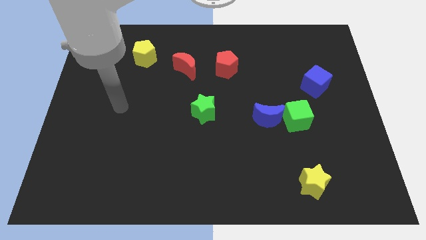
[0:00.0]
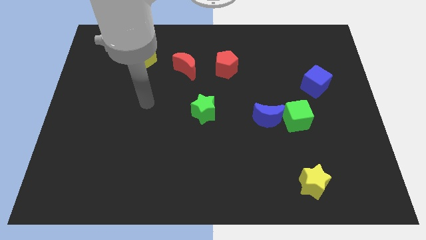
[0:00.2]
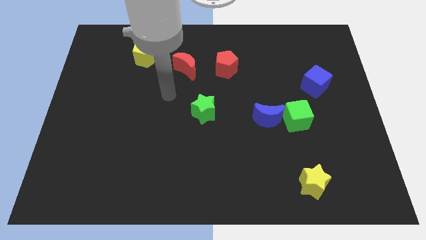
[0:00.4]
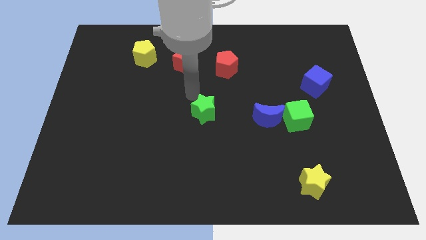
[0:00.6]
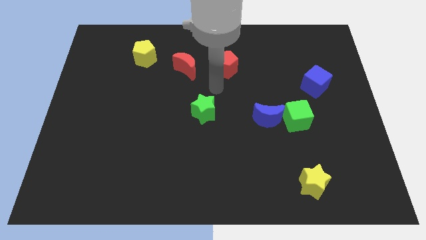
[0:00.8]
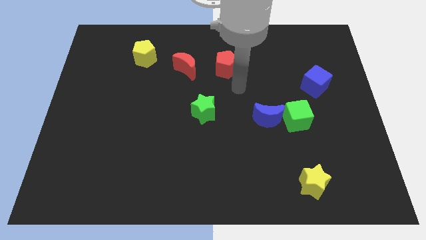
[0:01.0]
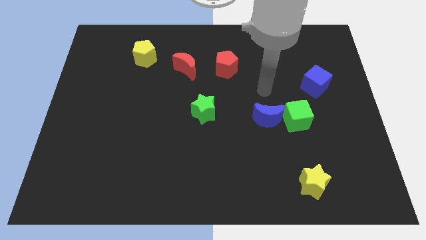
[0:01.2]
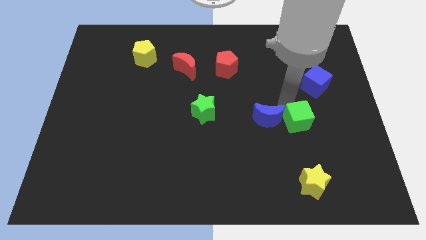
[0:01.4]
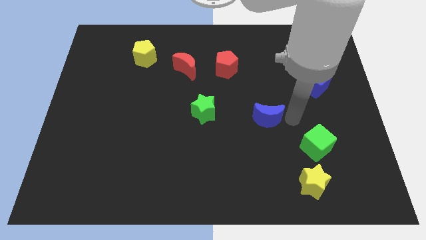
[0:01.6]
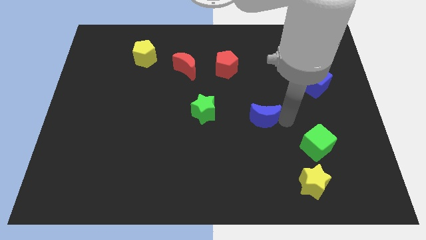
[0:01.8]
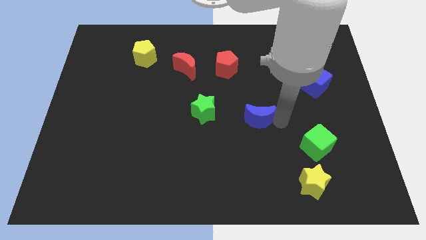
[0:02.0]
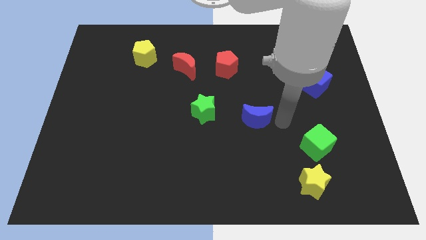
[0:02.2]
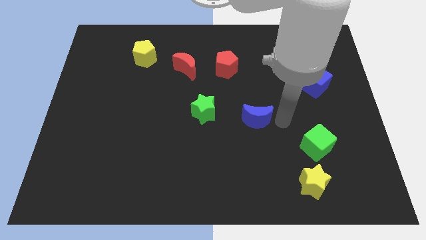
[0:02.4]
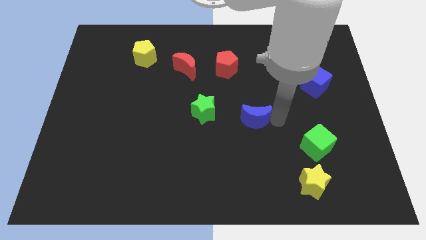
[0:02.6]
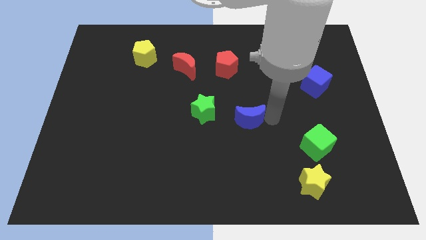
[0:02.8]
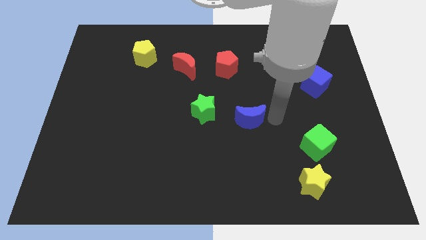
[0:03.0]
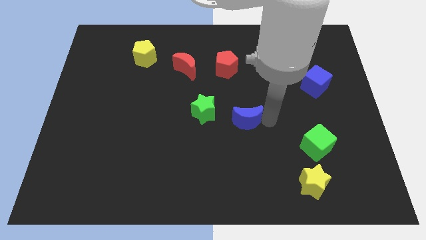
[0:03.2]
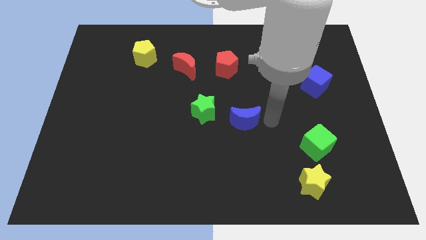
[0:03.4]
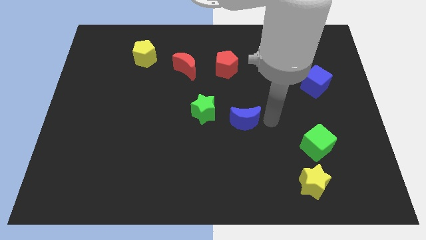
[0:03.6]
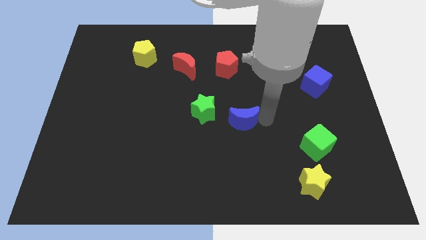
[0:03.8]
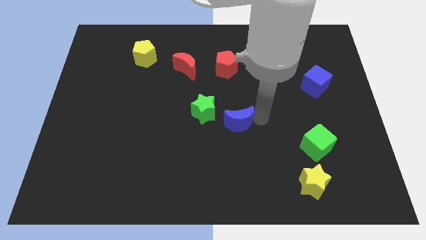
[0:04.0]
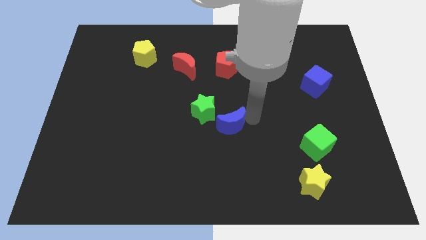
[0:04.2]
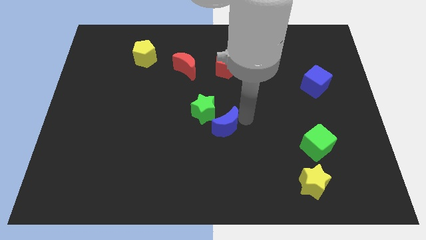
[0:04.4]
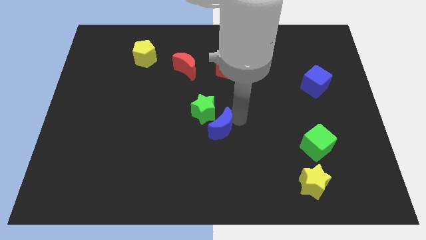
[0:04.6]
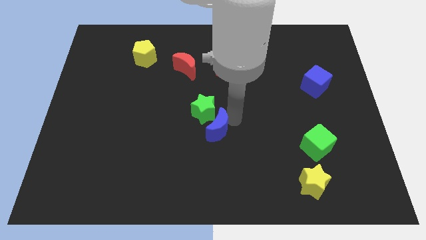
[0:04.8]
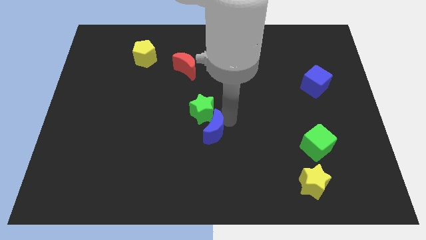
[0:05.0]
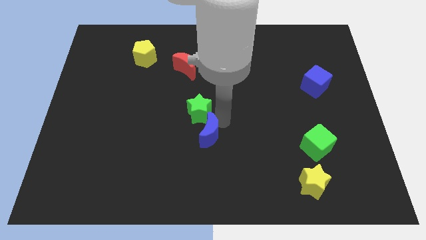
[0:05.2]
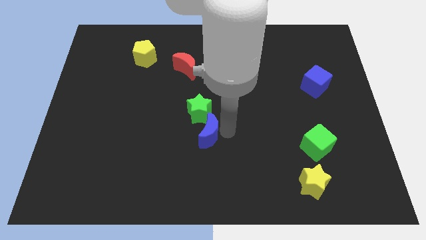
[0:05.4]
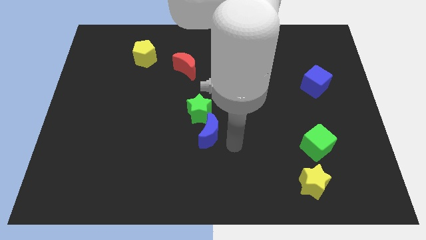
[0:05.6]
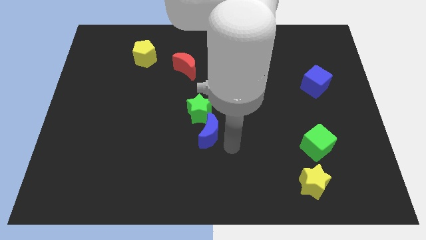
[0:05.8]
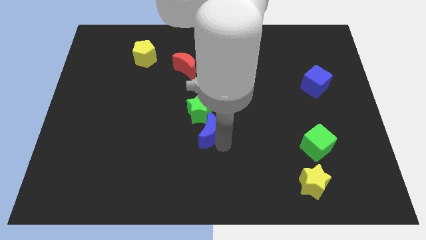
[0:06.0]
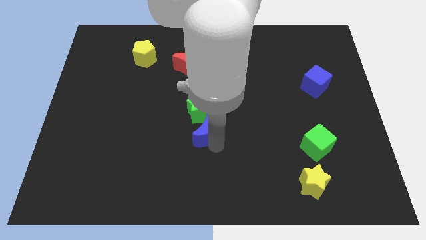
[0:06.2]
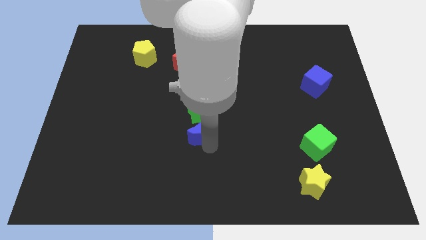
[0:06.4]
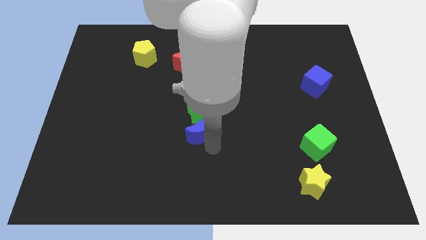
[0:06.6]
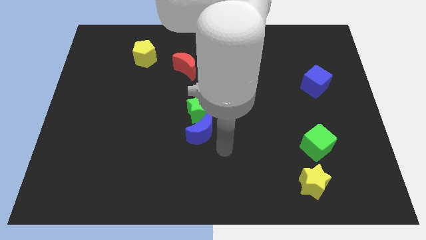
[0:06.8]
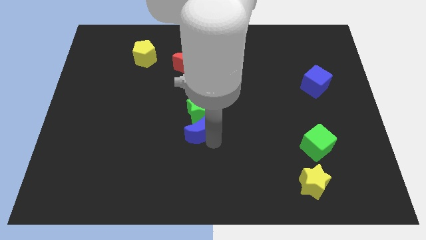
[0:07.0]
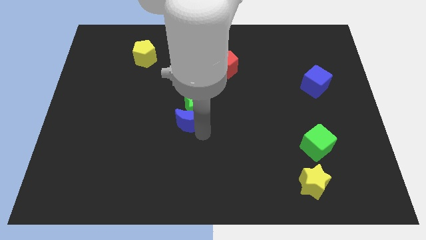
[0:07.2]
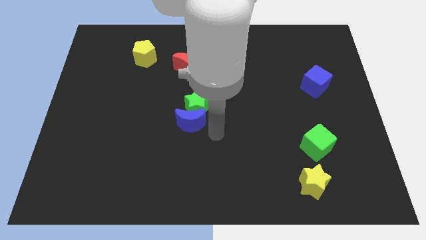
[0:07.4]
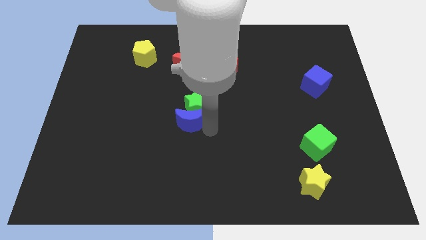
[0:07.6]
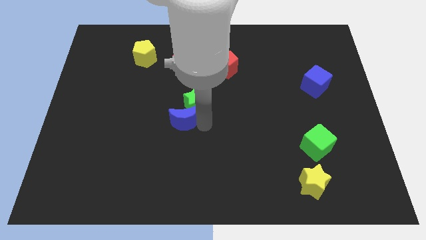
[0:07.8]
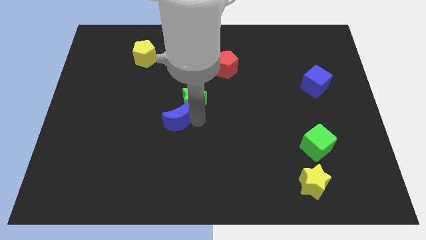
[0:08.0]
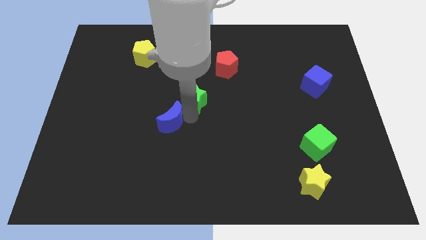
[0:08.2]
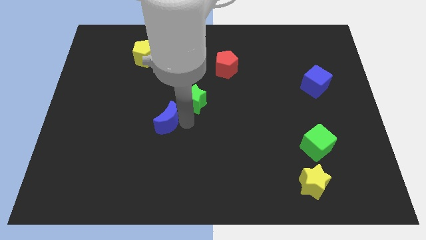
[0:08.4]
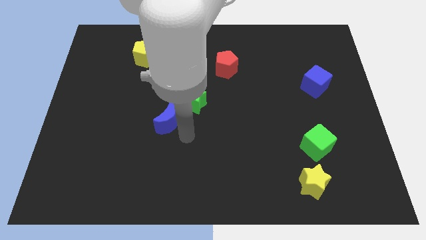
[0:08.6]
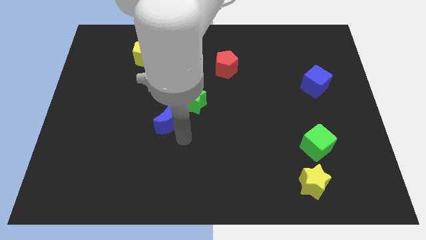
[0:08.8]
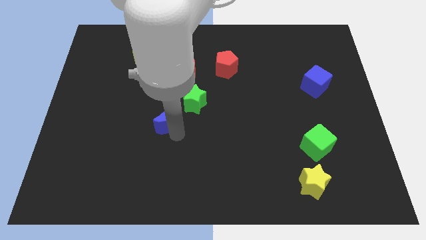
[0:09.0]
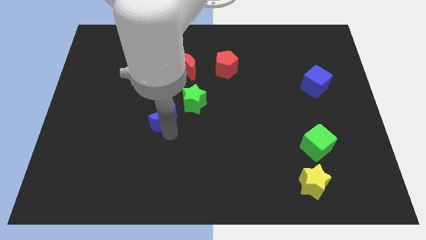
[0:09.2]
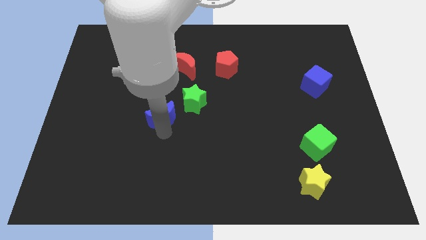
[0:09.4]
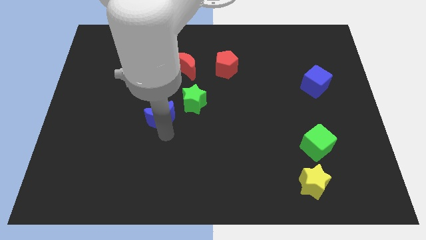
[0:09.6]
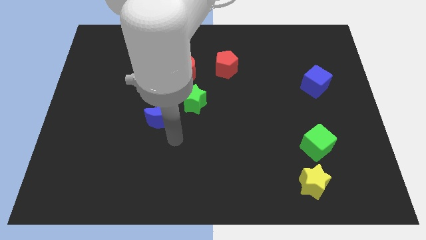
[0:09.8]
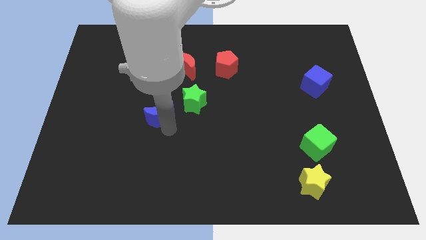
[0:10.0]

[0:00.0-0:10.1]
put the blue moon to the left of the green star

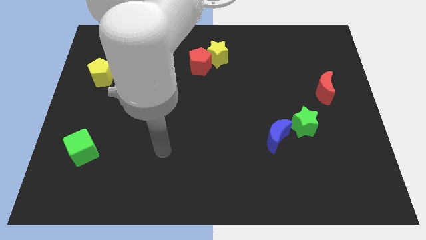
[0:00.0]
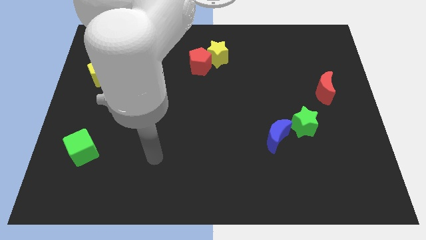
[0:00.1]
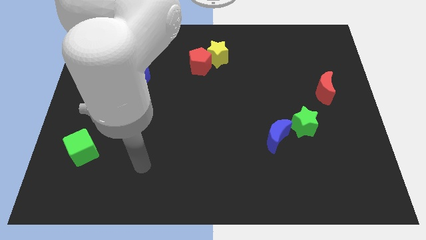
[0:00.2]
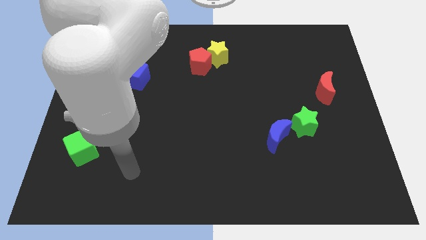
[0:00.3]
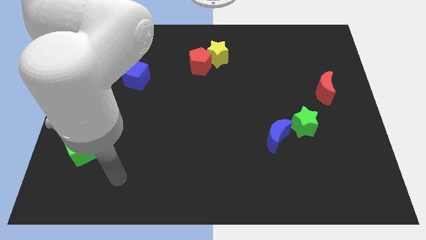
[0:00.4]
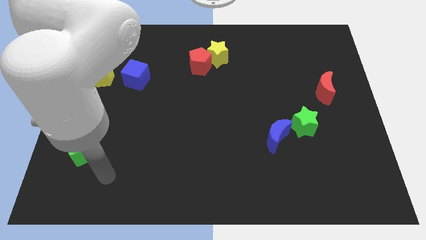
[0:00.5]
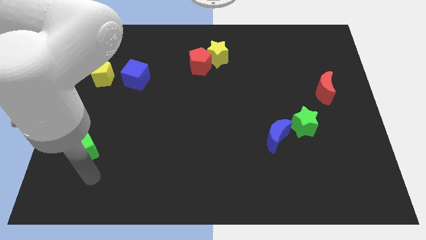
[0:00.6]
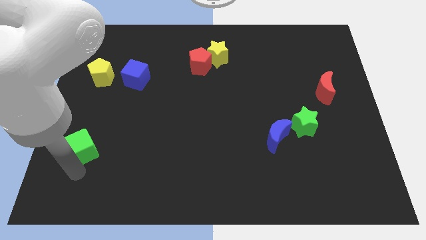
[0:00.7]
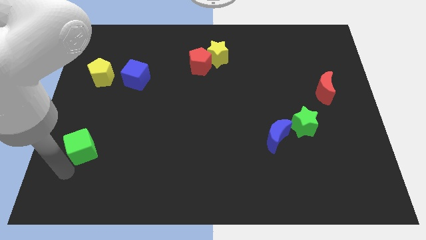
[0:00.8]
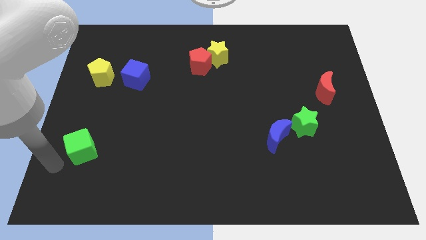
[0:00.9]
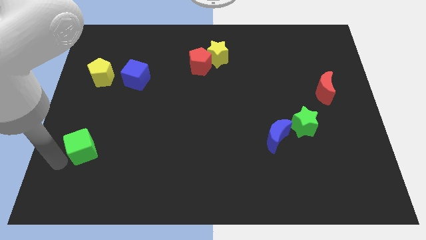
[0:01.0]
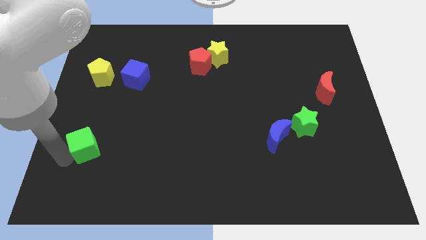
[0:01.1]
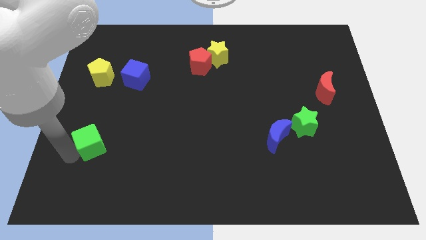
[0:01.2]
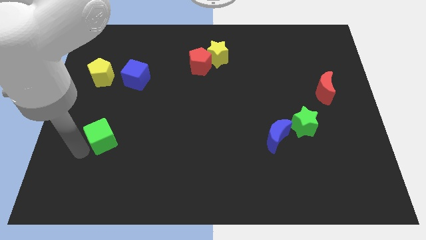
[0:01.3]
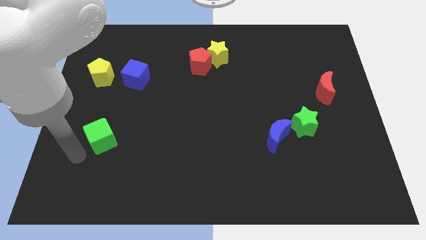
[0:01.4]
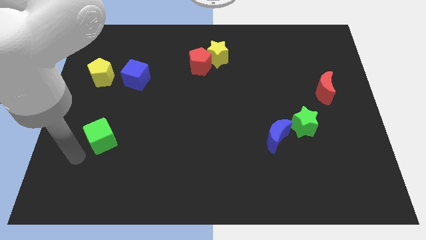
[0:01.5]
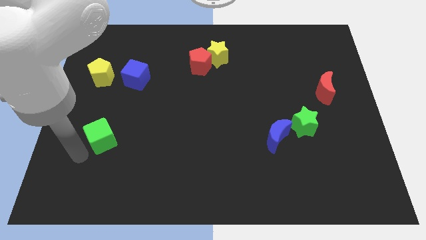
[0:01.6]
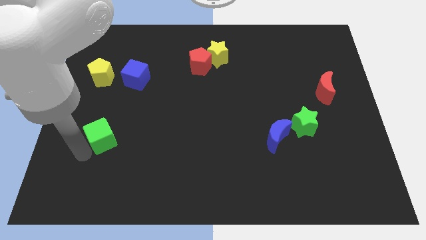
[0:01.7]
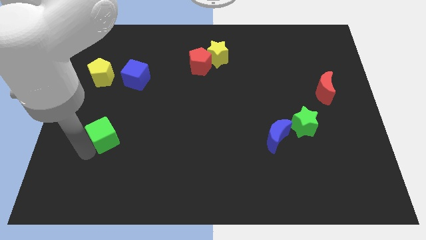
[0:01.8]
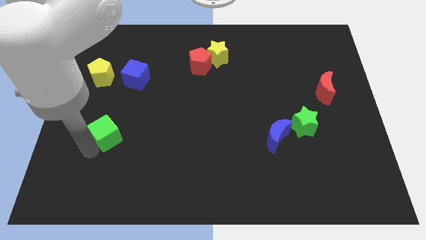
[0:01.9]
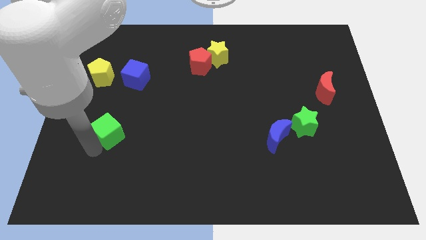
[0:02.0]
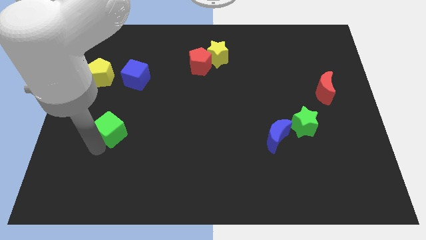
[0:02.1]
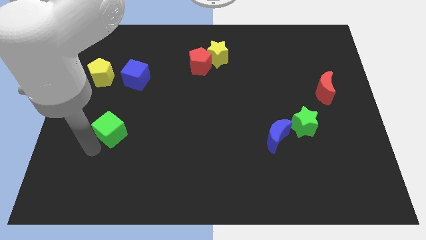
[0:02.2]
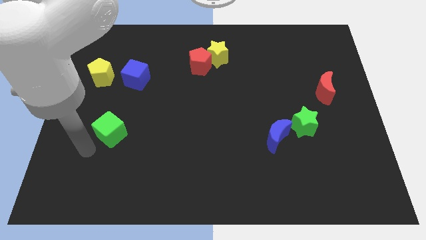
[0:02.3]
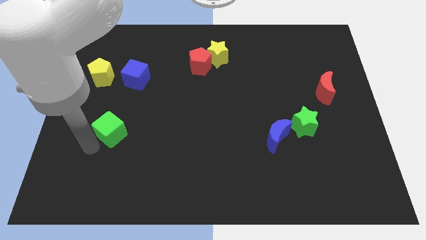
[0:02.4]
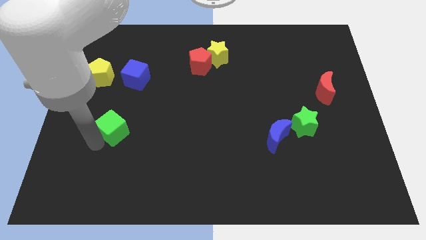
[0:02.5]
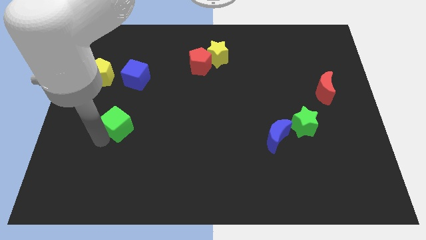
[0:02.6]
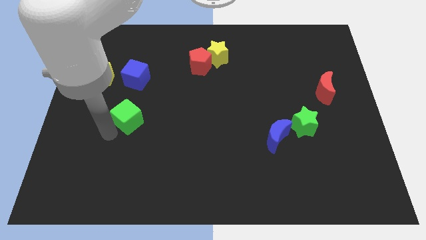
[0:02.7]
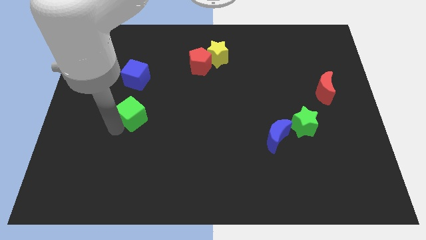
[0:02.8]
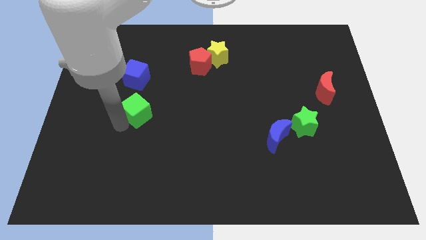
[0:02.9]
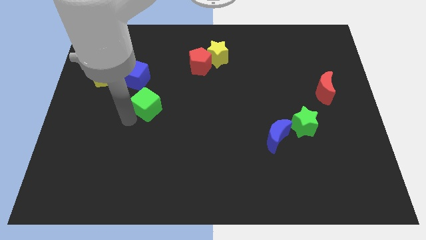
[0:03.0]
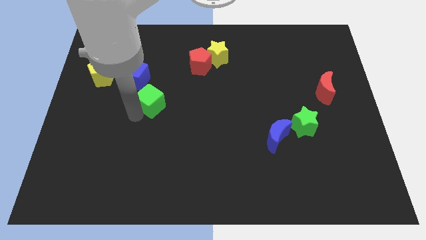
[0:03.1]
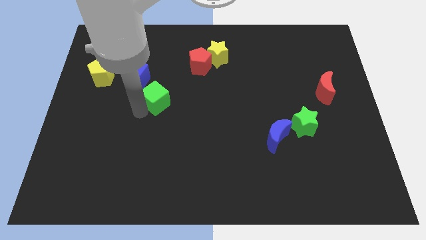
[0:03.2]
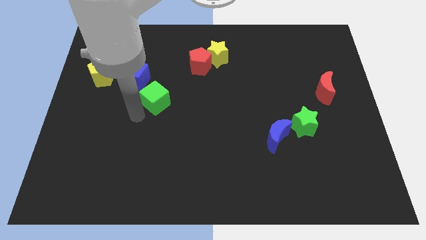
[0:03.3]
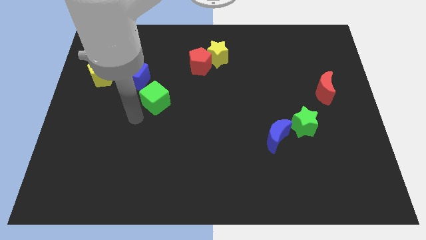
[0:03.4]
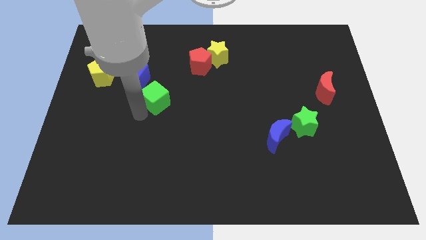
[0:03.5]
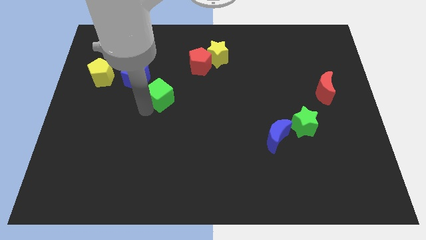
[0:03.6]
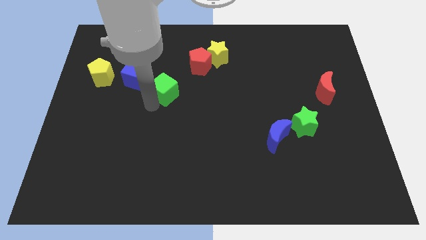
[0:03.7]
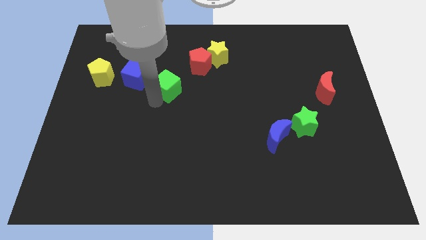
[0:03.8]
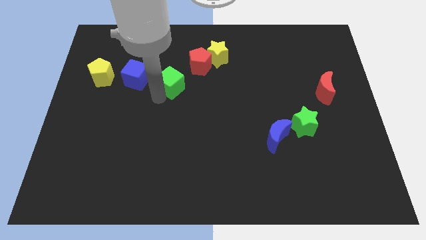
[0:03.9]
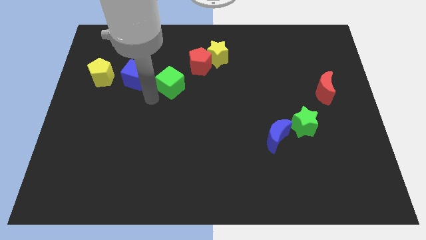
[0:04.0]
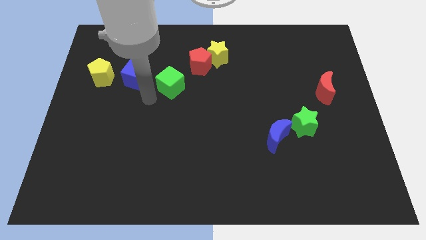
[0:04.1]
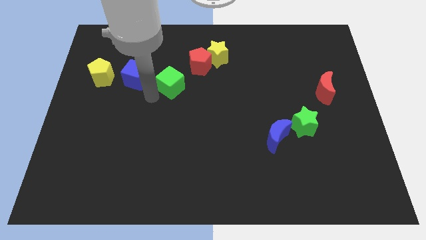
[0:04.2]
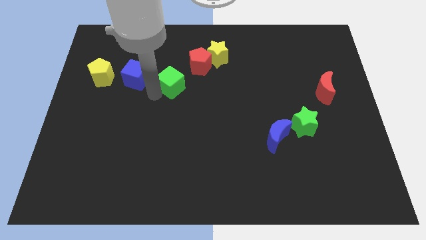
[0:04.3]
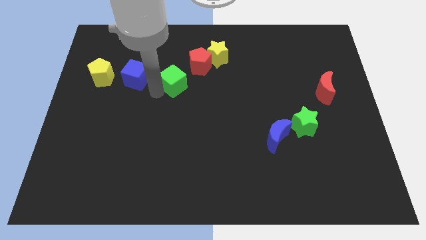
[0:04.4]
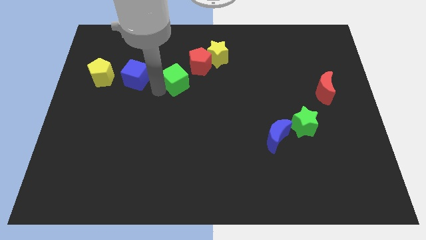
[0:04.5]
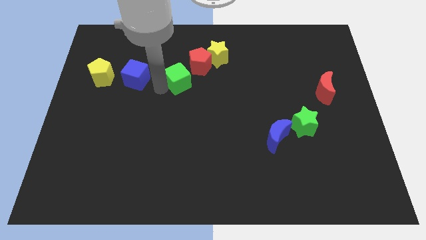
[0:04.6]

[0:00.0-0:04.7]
push the green cube to the bottom left side of the yellow star
